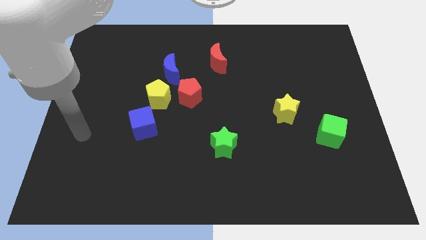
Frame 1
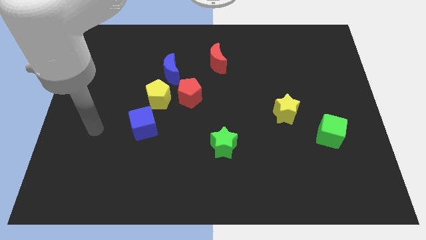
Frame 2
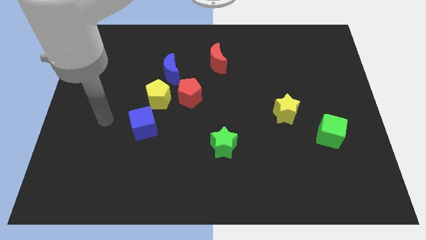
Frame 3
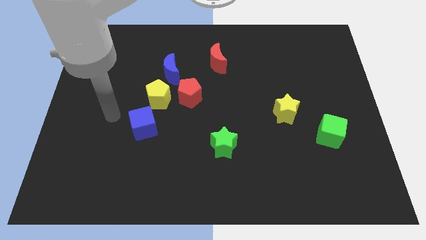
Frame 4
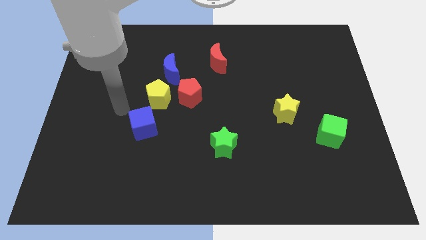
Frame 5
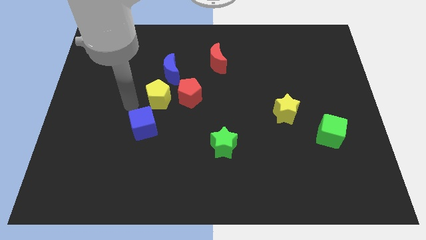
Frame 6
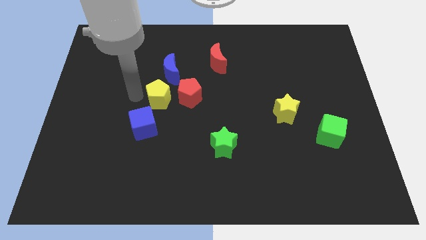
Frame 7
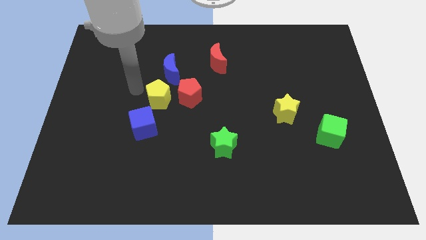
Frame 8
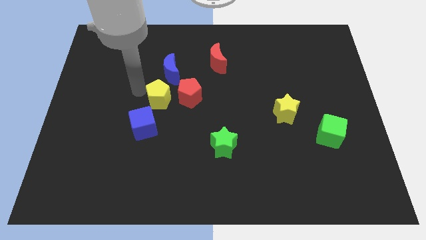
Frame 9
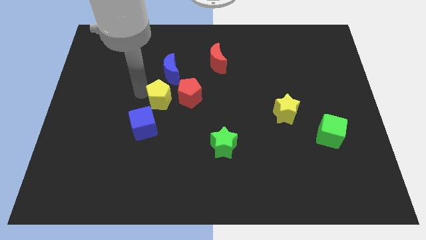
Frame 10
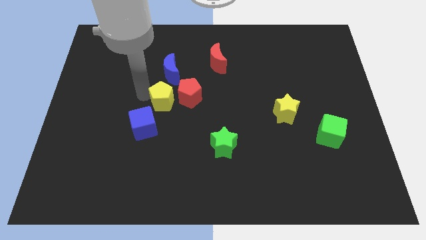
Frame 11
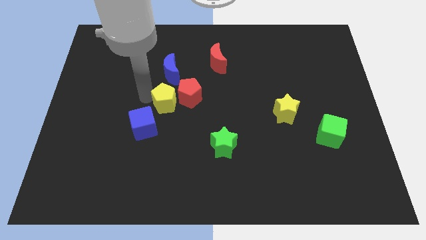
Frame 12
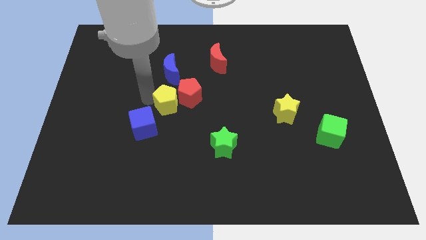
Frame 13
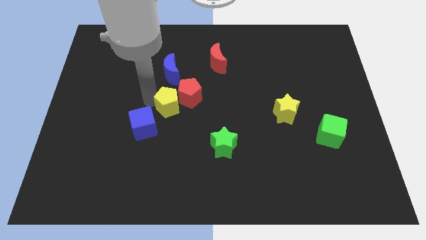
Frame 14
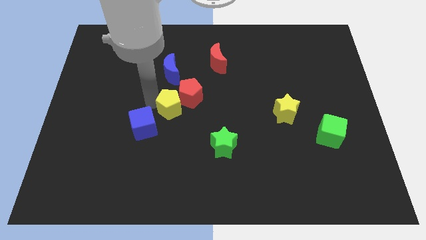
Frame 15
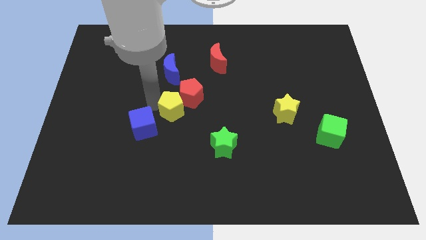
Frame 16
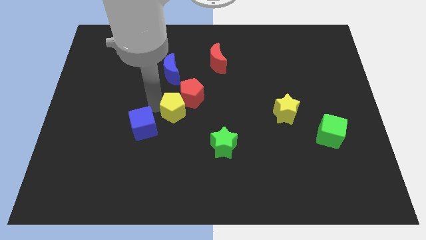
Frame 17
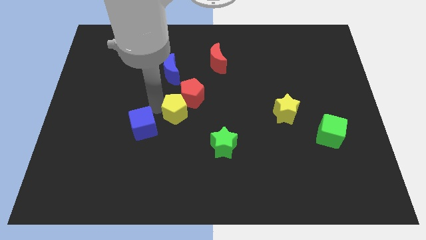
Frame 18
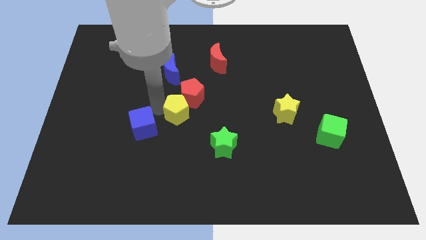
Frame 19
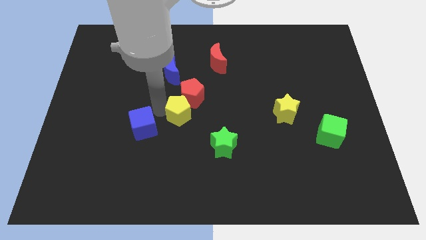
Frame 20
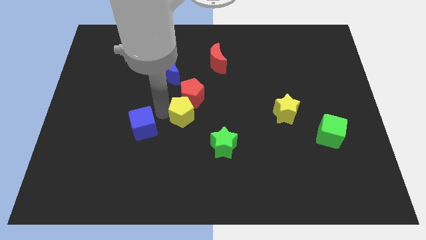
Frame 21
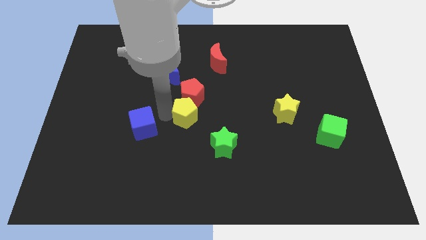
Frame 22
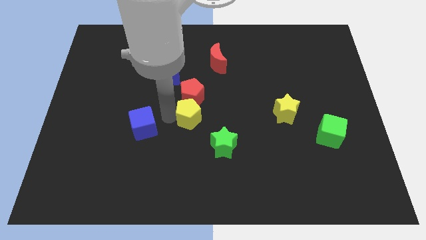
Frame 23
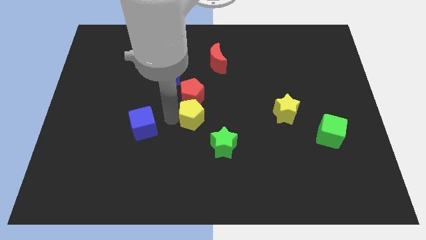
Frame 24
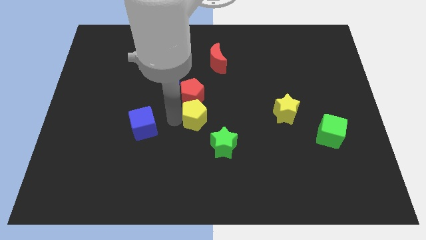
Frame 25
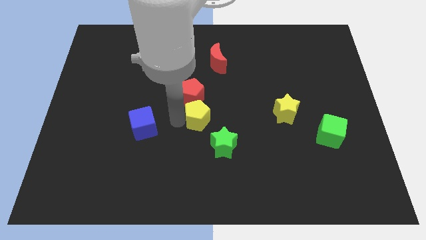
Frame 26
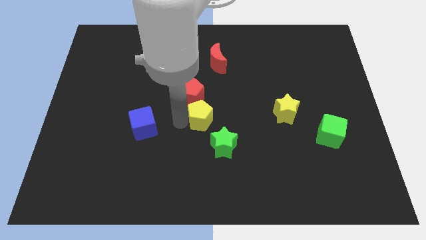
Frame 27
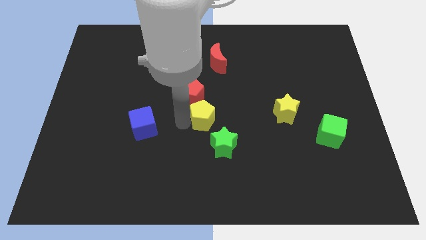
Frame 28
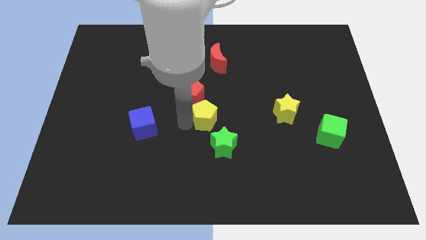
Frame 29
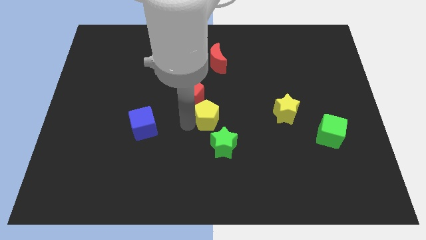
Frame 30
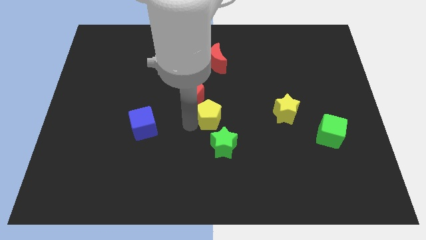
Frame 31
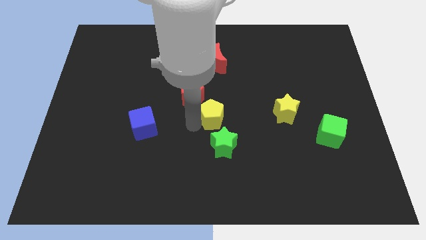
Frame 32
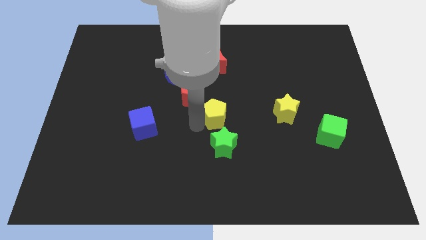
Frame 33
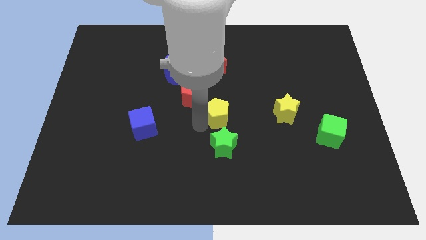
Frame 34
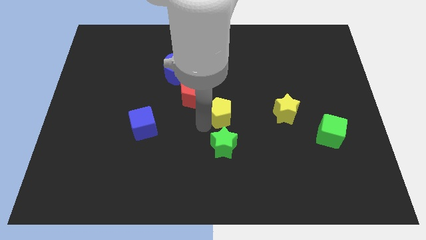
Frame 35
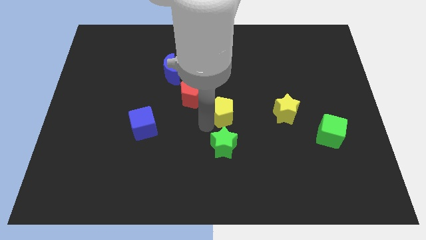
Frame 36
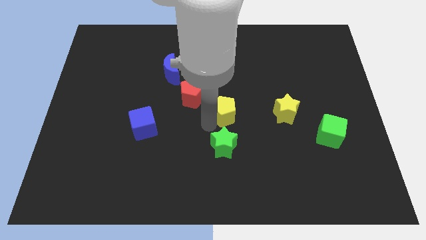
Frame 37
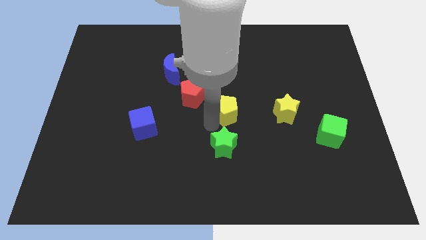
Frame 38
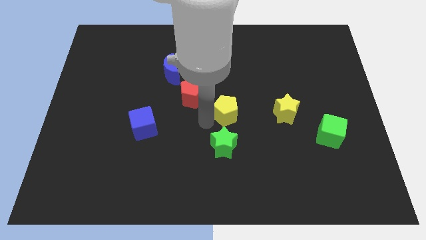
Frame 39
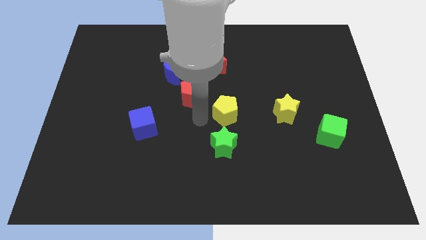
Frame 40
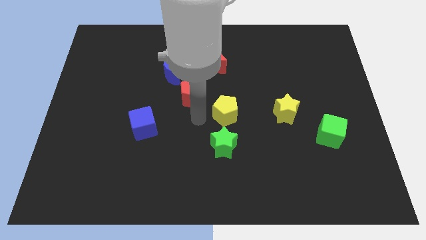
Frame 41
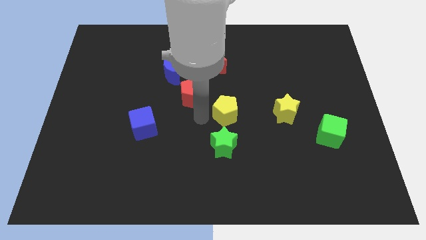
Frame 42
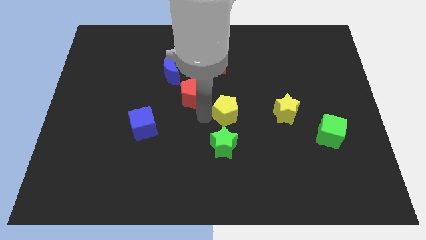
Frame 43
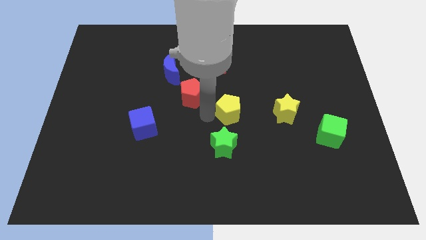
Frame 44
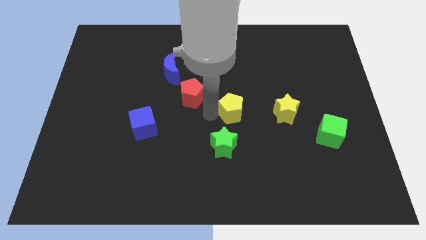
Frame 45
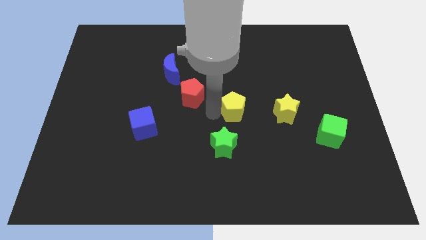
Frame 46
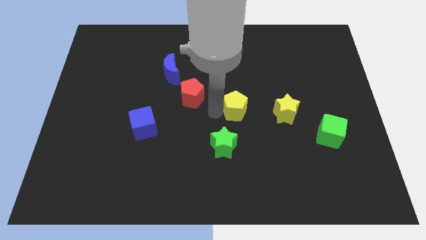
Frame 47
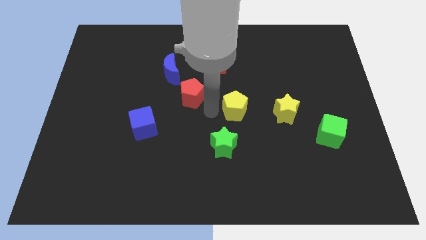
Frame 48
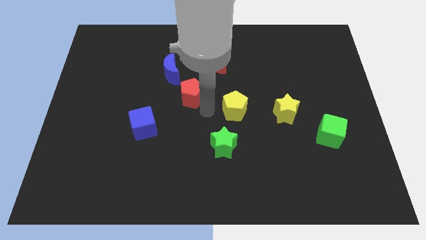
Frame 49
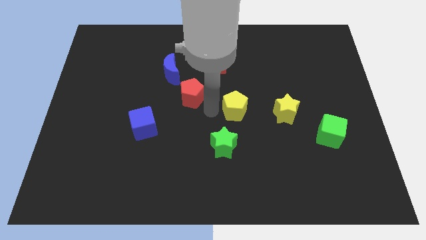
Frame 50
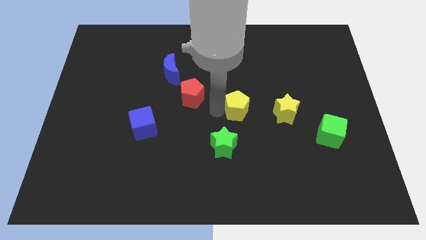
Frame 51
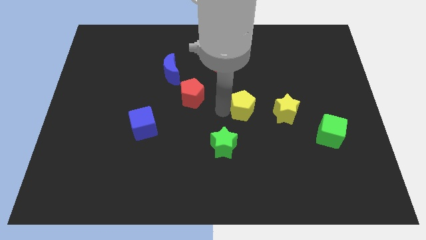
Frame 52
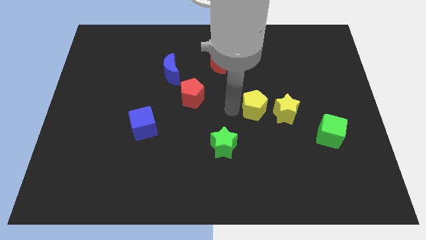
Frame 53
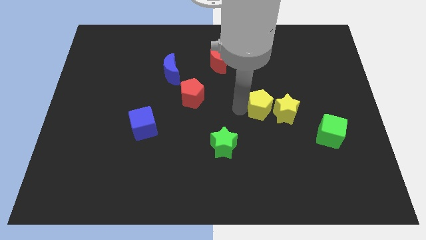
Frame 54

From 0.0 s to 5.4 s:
slide the yellow pentagon next to the yellow star

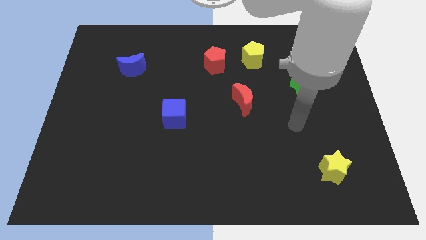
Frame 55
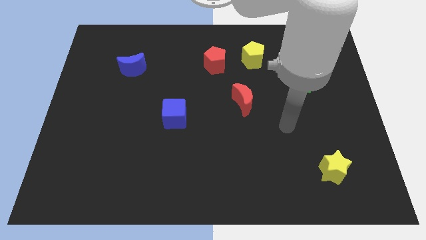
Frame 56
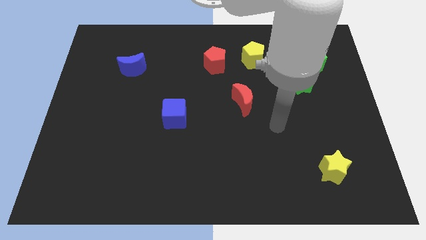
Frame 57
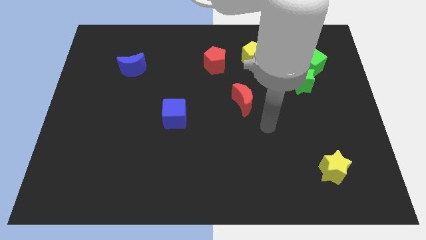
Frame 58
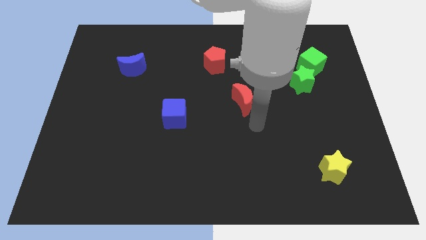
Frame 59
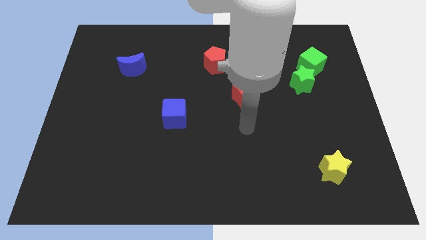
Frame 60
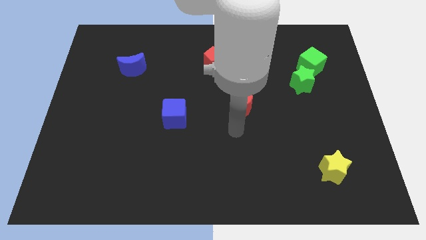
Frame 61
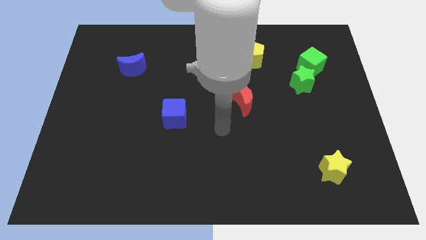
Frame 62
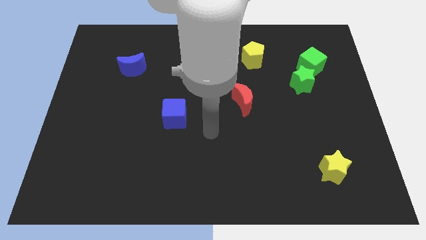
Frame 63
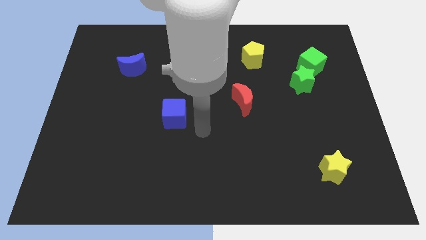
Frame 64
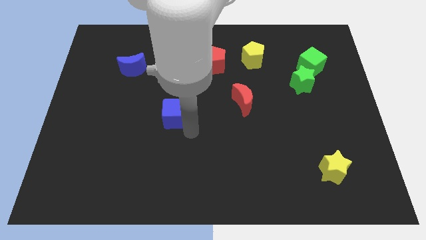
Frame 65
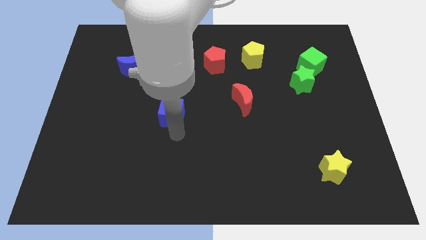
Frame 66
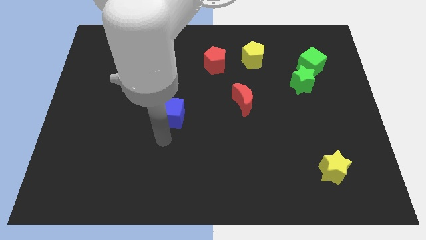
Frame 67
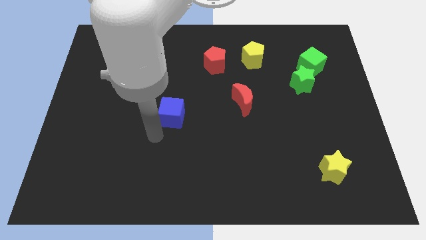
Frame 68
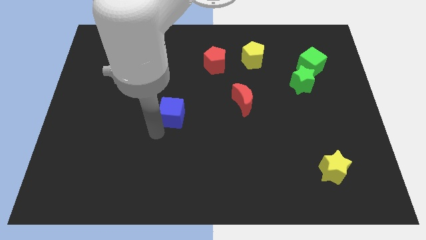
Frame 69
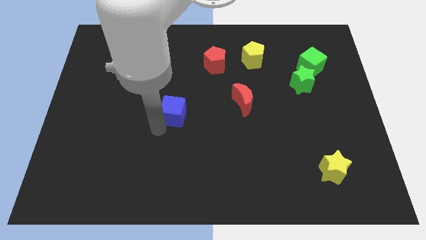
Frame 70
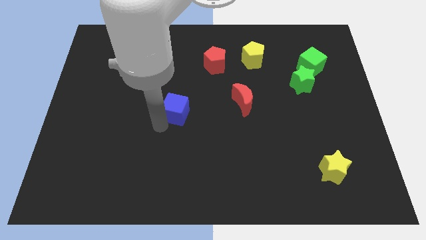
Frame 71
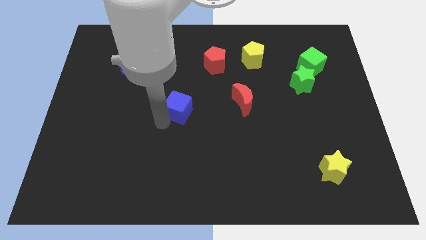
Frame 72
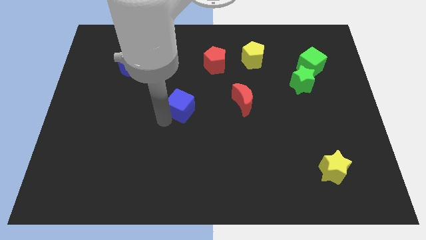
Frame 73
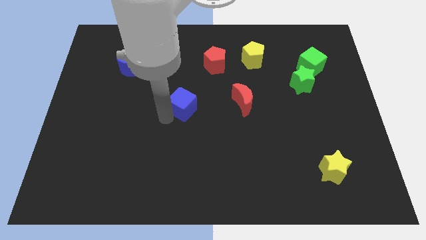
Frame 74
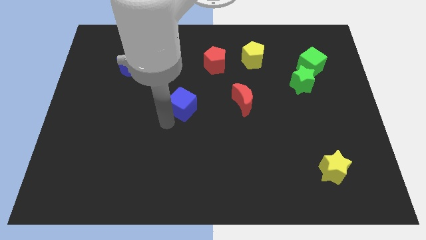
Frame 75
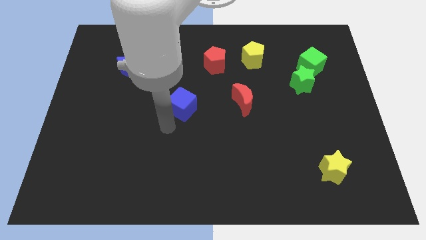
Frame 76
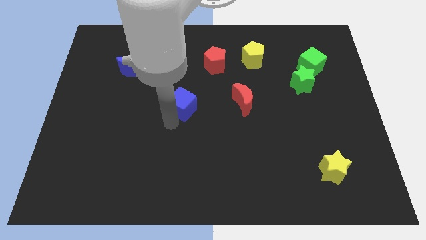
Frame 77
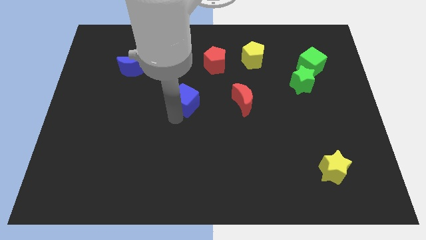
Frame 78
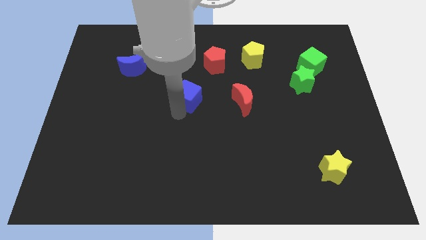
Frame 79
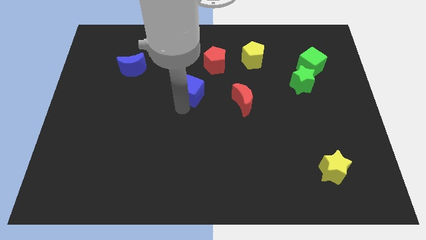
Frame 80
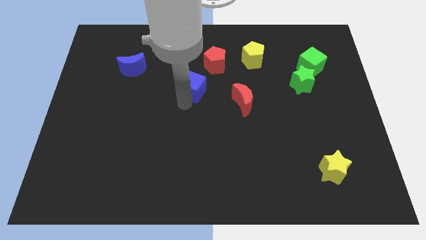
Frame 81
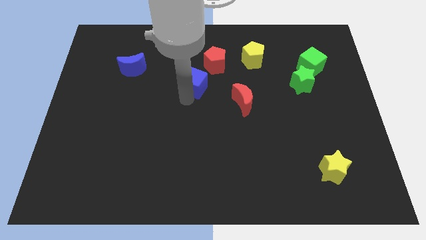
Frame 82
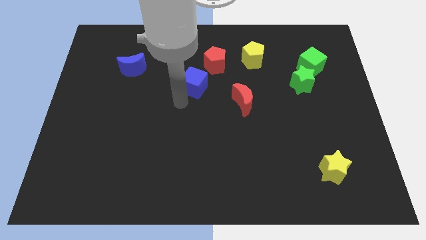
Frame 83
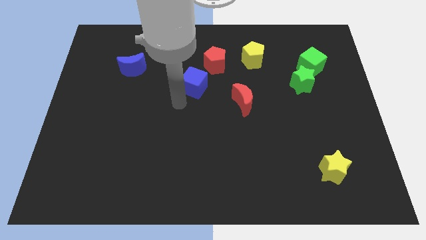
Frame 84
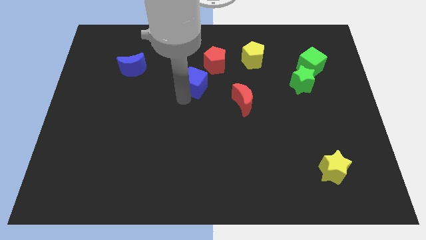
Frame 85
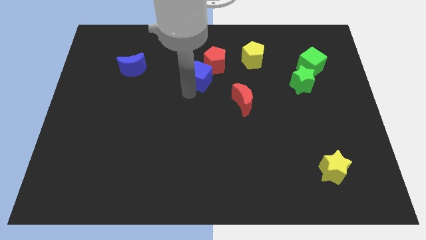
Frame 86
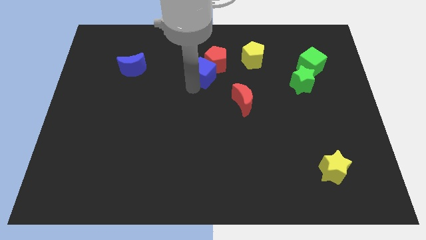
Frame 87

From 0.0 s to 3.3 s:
slide the blue cube to the red pentagon
